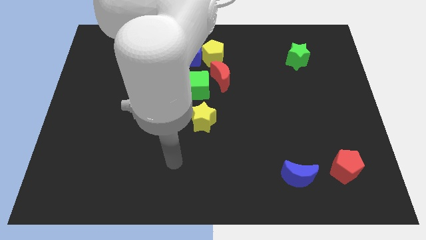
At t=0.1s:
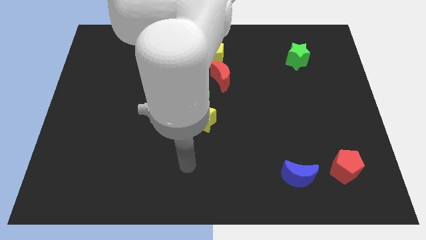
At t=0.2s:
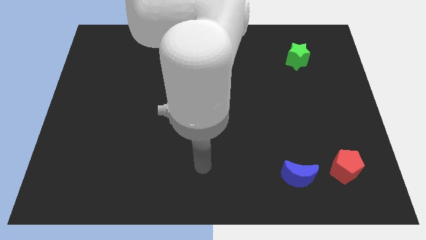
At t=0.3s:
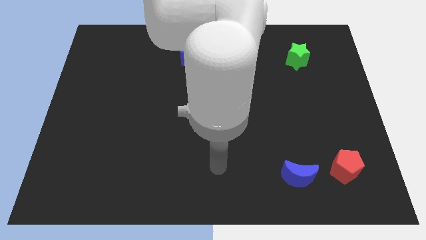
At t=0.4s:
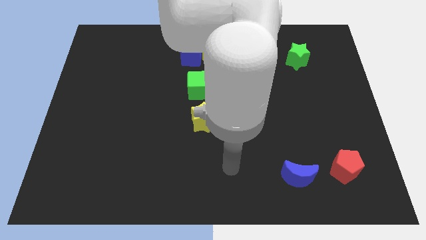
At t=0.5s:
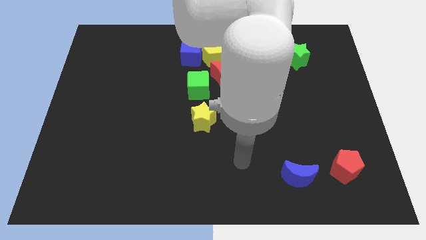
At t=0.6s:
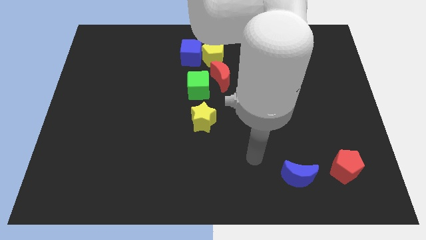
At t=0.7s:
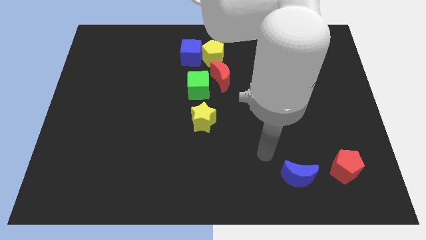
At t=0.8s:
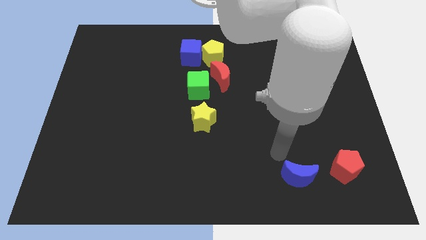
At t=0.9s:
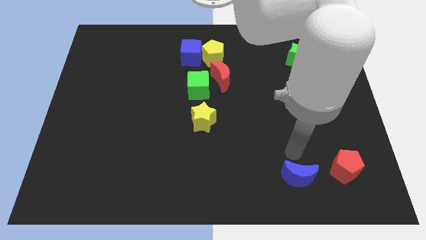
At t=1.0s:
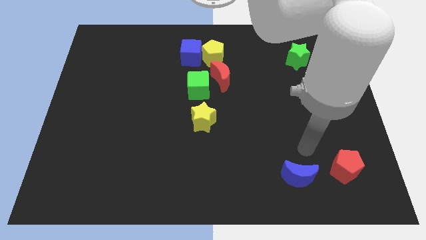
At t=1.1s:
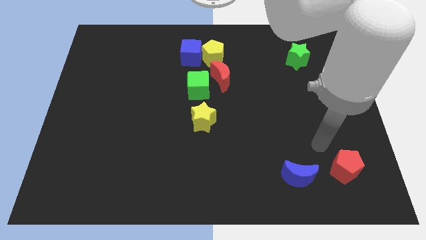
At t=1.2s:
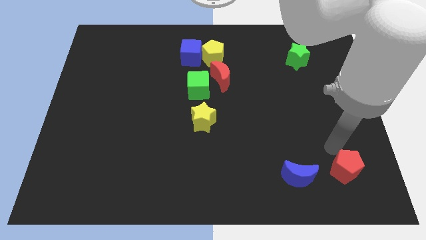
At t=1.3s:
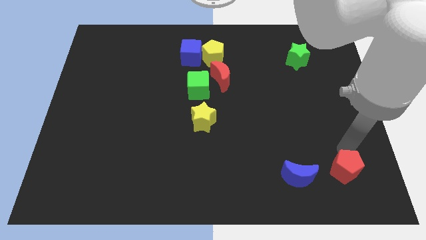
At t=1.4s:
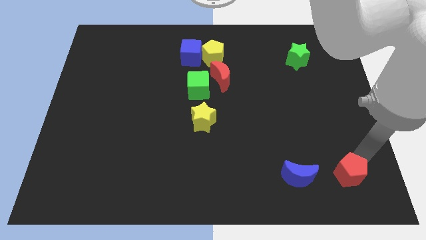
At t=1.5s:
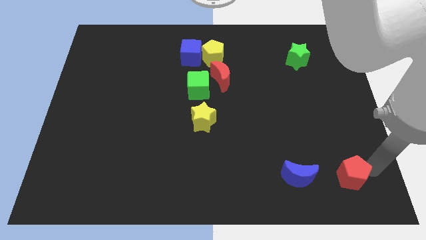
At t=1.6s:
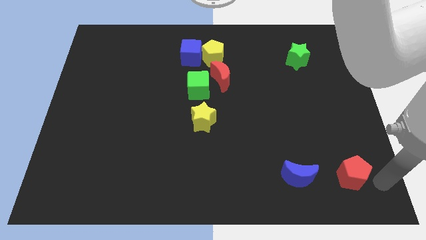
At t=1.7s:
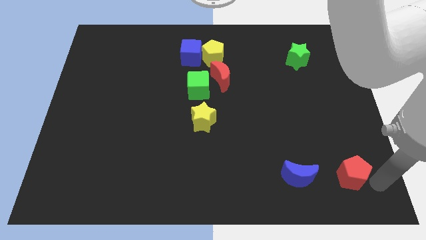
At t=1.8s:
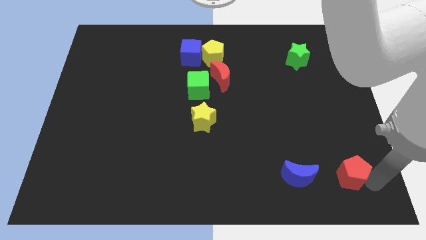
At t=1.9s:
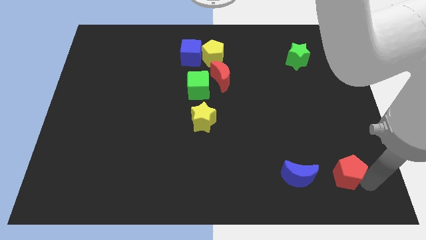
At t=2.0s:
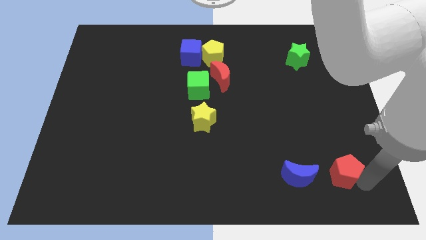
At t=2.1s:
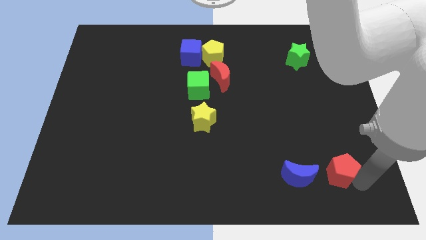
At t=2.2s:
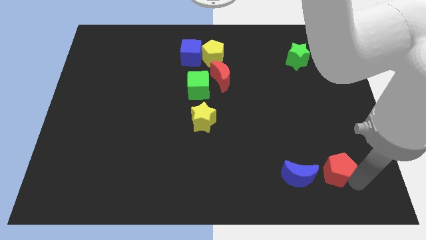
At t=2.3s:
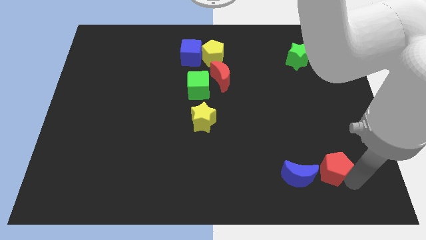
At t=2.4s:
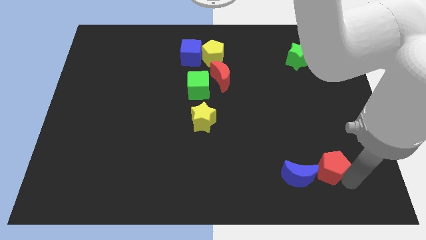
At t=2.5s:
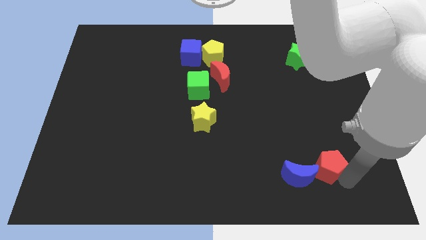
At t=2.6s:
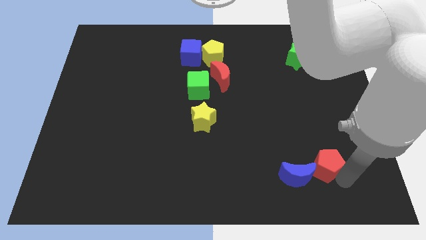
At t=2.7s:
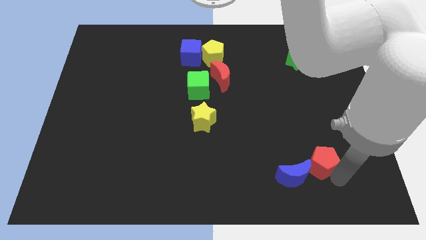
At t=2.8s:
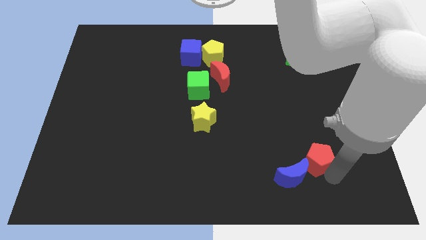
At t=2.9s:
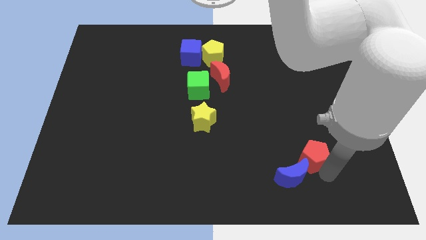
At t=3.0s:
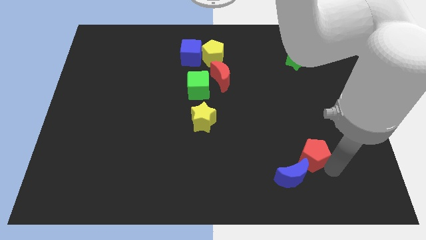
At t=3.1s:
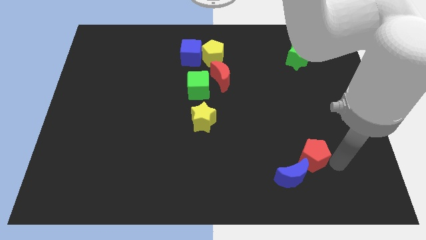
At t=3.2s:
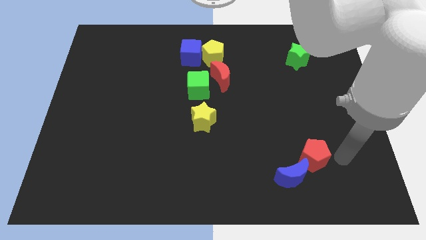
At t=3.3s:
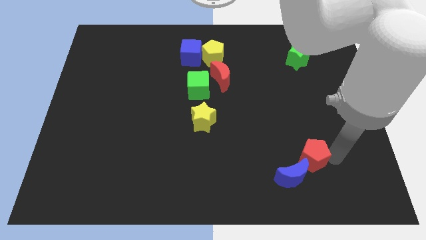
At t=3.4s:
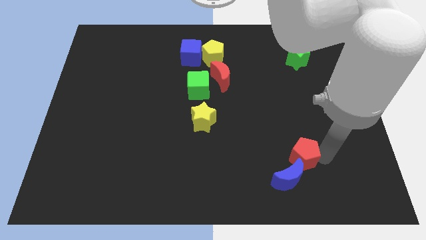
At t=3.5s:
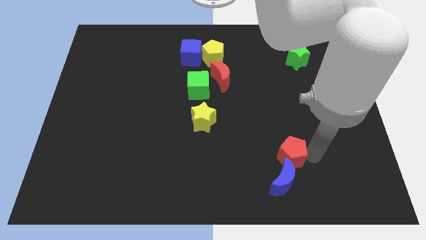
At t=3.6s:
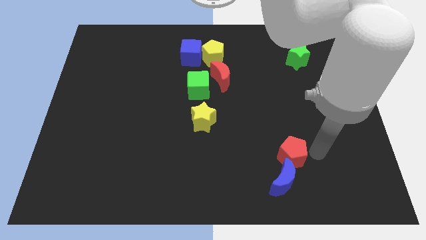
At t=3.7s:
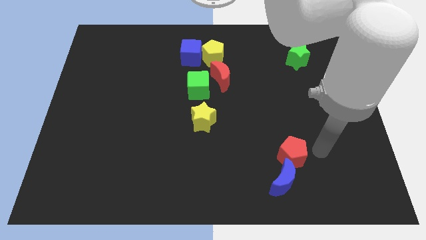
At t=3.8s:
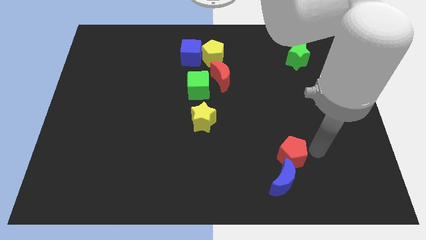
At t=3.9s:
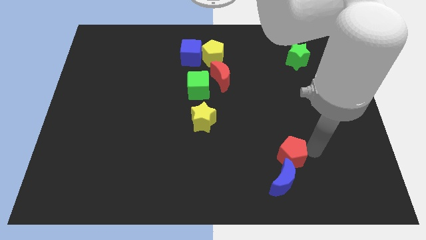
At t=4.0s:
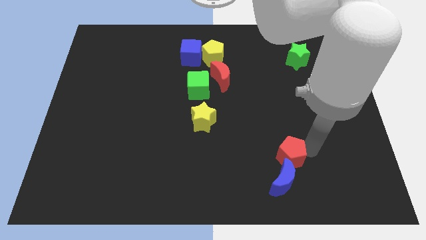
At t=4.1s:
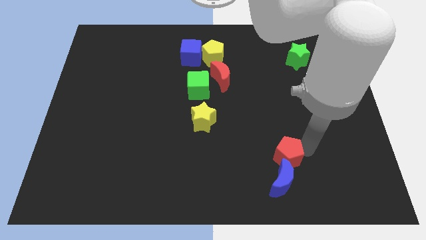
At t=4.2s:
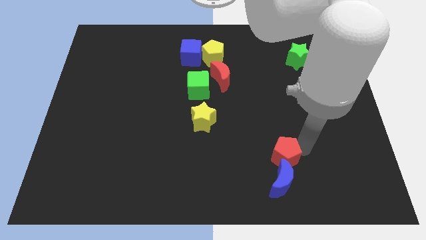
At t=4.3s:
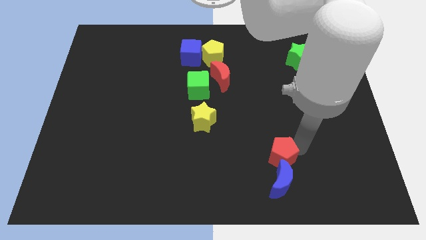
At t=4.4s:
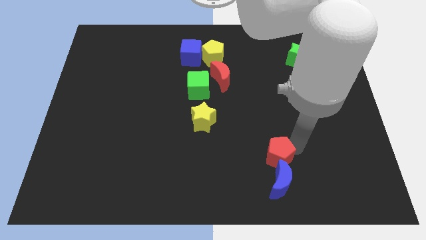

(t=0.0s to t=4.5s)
slide the red pentagon diagonally up and to the left of the blue moon

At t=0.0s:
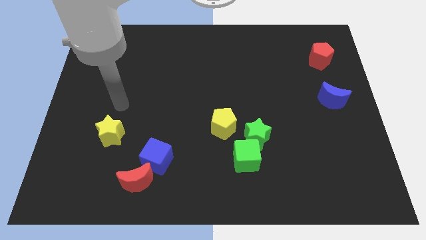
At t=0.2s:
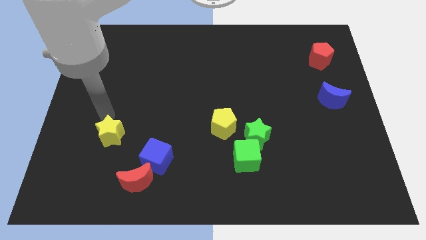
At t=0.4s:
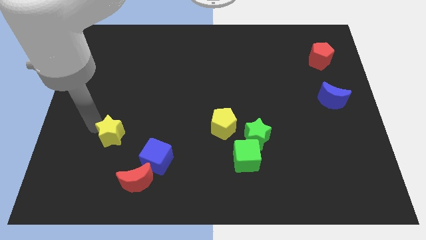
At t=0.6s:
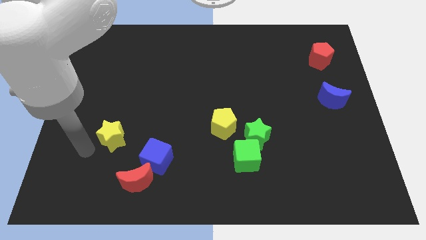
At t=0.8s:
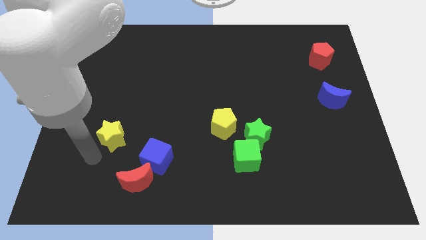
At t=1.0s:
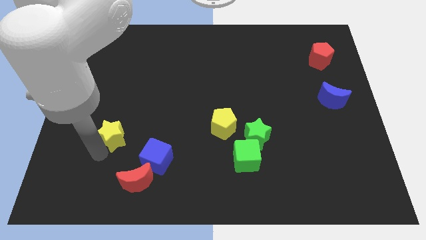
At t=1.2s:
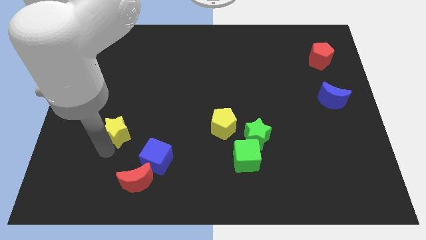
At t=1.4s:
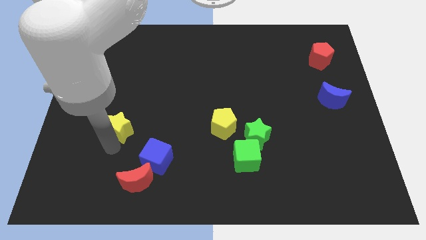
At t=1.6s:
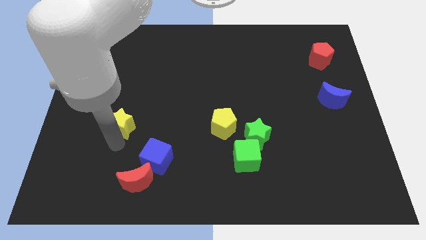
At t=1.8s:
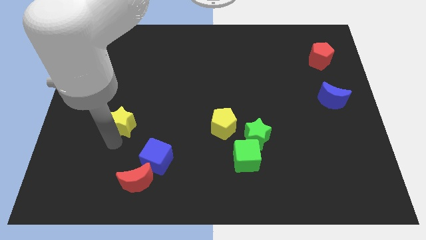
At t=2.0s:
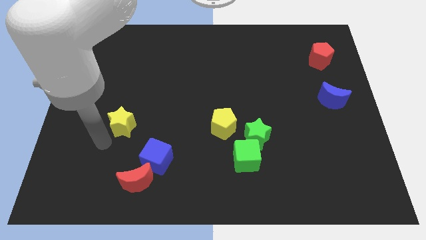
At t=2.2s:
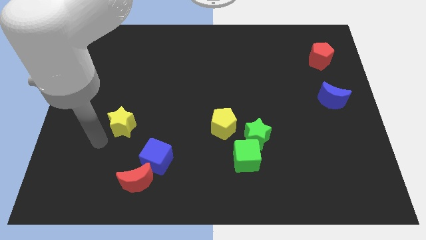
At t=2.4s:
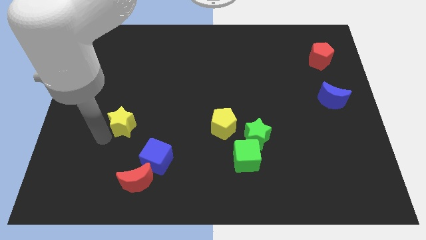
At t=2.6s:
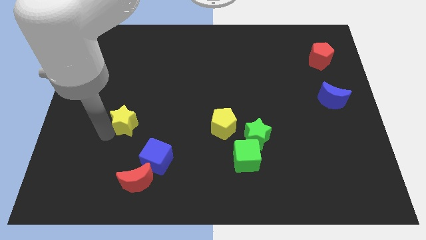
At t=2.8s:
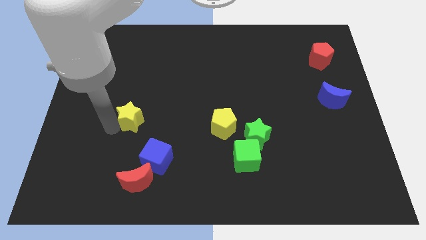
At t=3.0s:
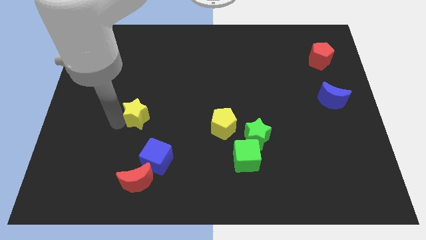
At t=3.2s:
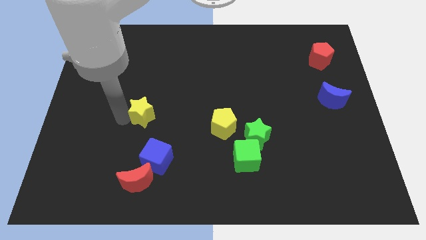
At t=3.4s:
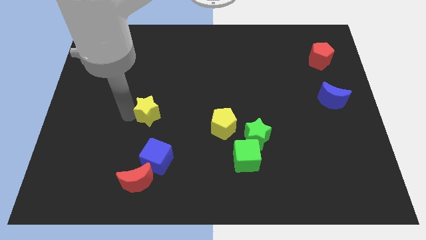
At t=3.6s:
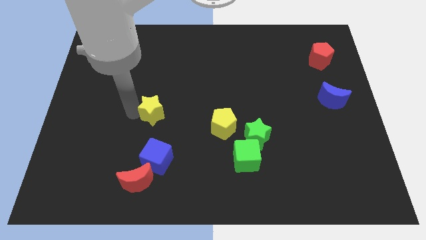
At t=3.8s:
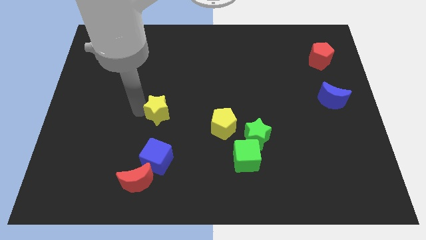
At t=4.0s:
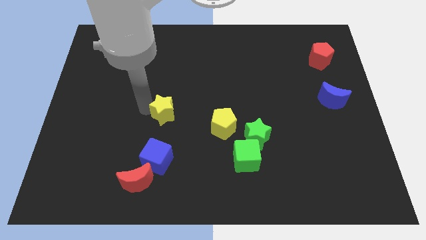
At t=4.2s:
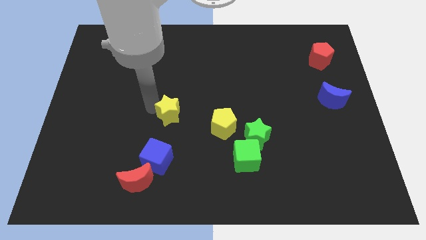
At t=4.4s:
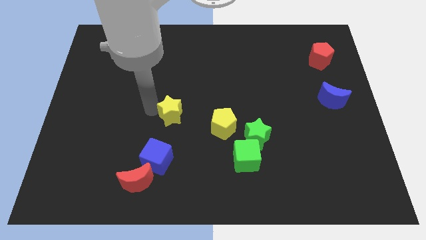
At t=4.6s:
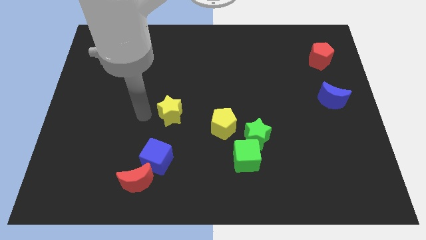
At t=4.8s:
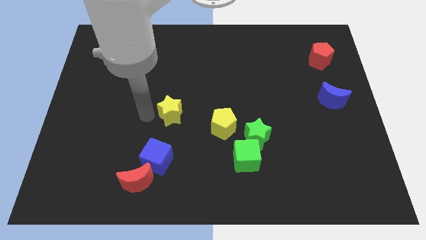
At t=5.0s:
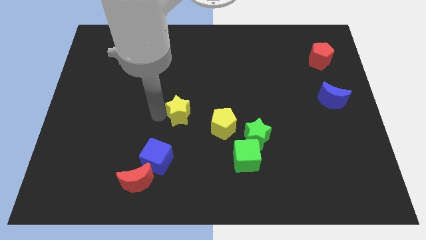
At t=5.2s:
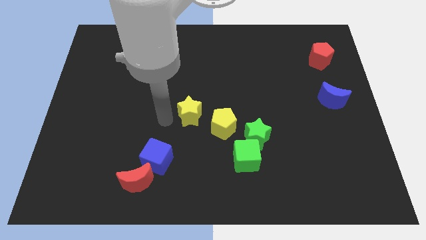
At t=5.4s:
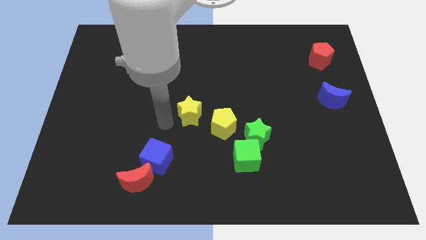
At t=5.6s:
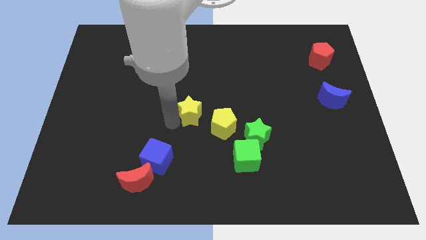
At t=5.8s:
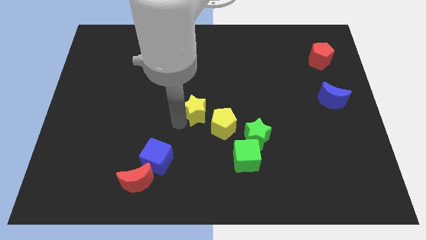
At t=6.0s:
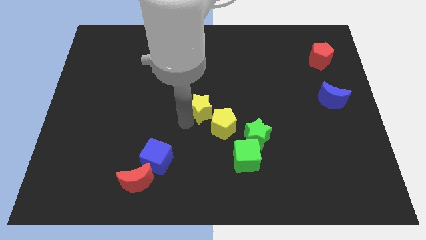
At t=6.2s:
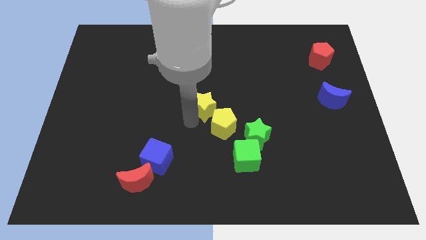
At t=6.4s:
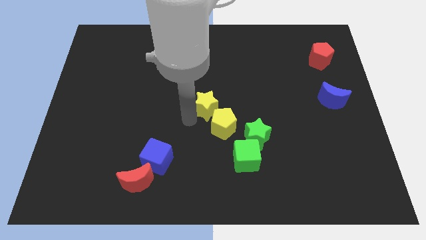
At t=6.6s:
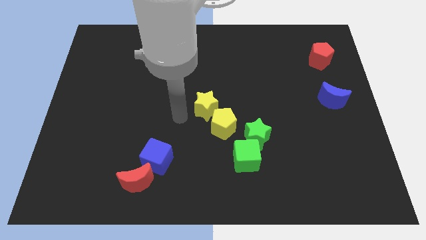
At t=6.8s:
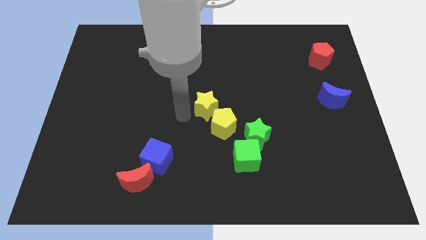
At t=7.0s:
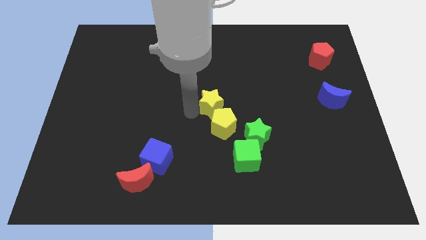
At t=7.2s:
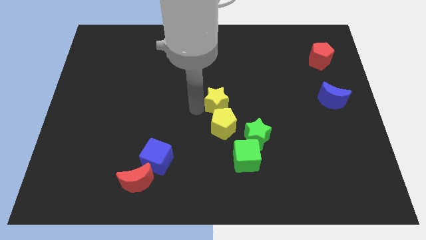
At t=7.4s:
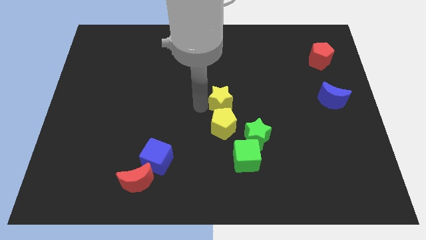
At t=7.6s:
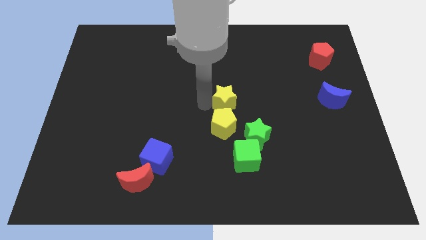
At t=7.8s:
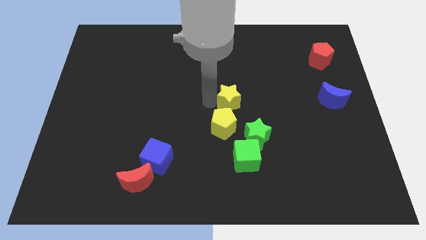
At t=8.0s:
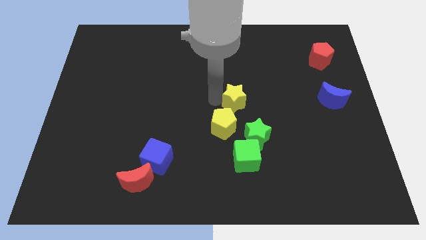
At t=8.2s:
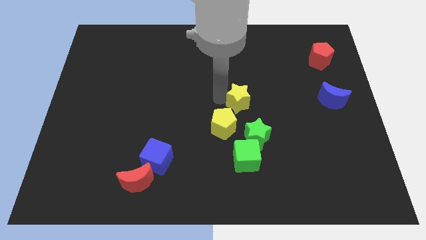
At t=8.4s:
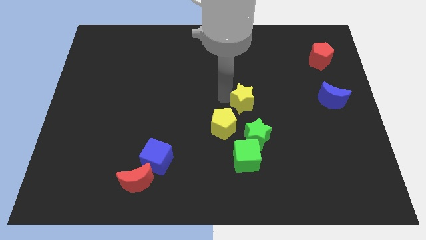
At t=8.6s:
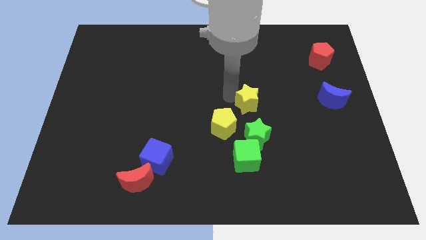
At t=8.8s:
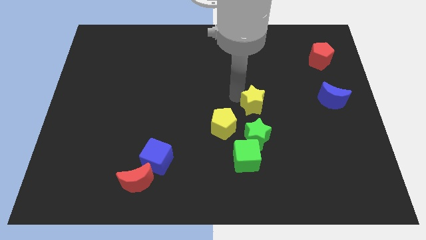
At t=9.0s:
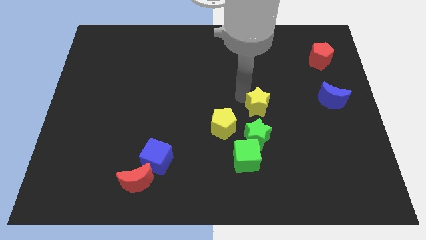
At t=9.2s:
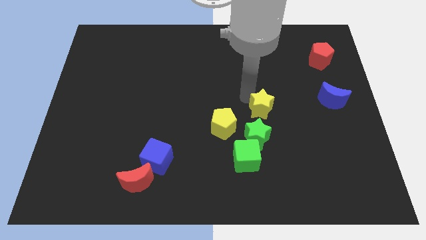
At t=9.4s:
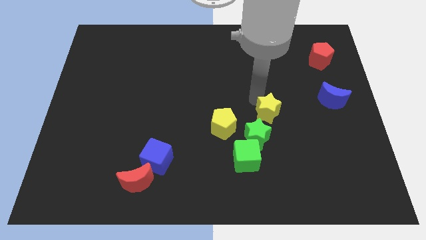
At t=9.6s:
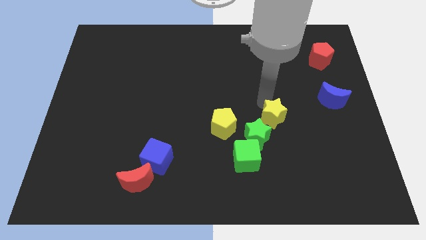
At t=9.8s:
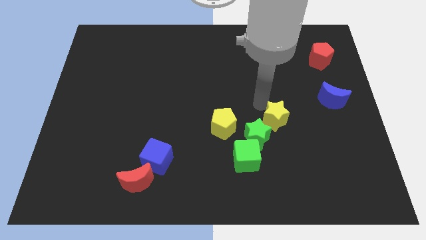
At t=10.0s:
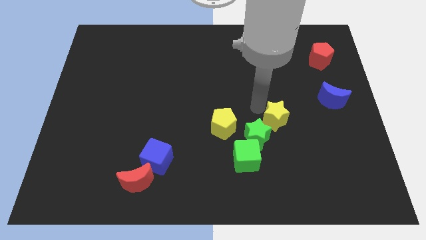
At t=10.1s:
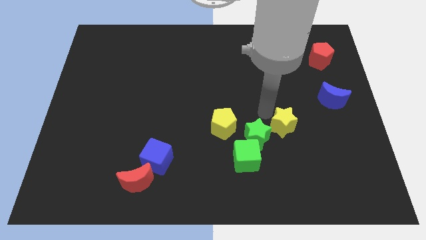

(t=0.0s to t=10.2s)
push the yellow star to the right side of the green star
